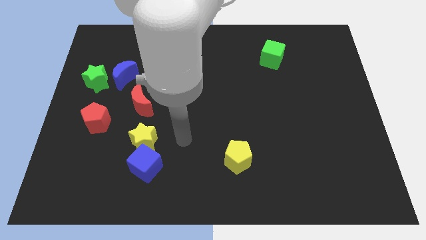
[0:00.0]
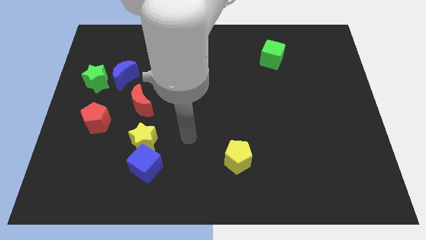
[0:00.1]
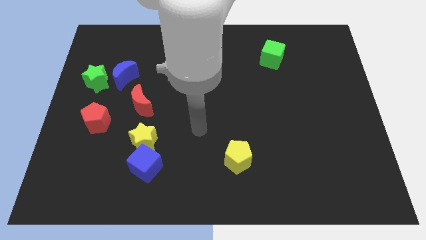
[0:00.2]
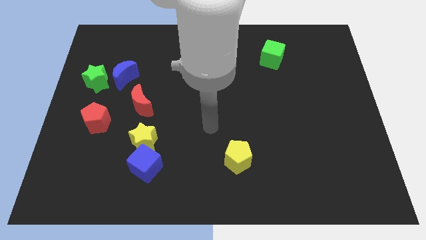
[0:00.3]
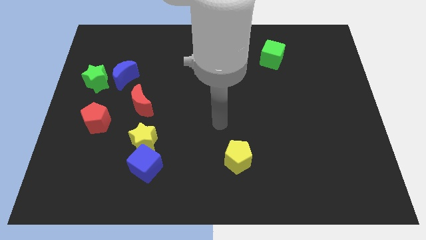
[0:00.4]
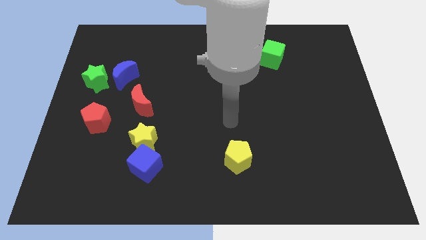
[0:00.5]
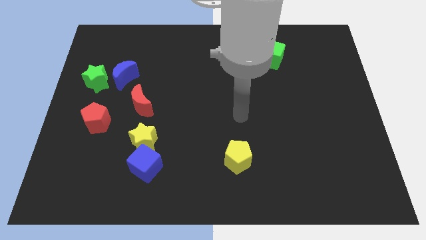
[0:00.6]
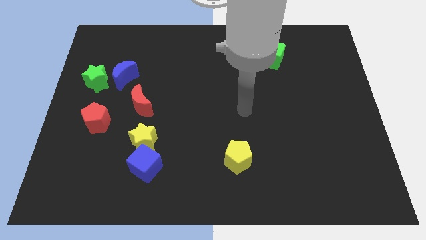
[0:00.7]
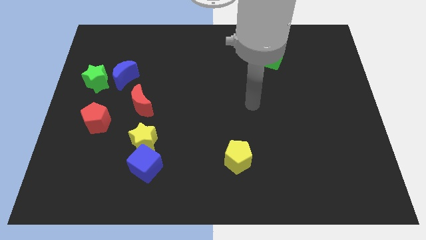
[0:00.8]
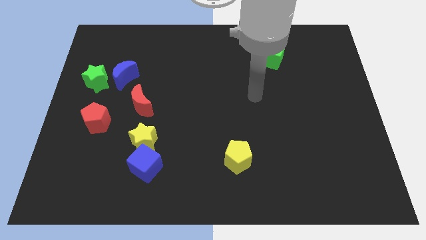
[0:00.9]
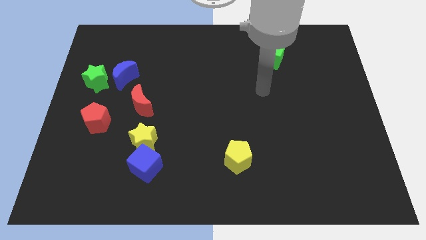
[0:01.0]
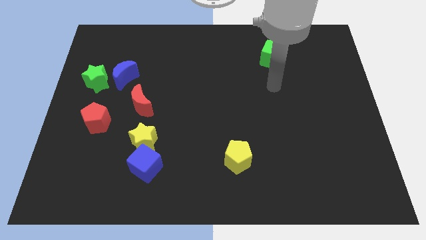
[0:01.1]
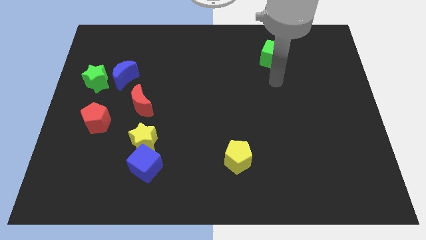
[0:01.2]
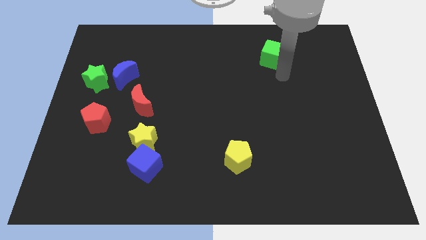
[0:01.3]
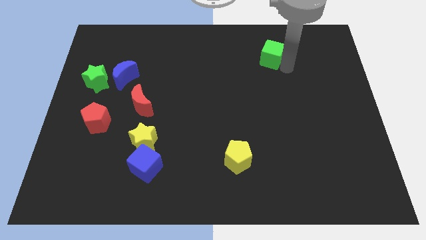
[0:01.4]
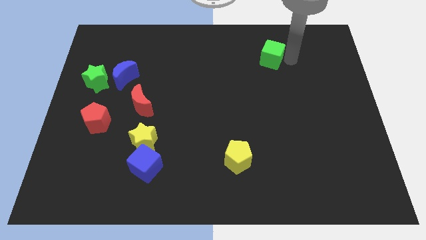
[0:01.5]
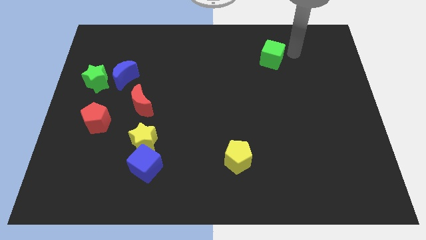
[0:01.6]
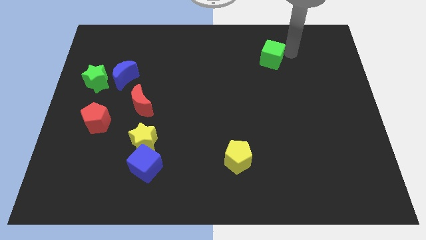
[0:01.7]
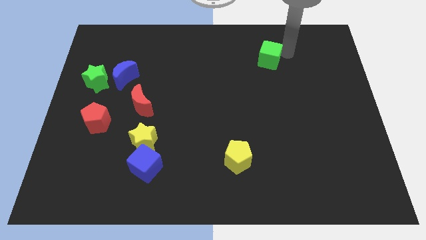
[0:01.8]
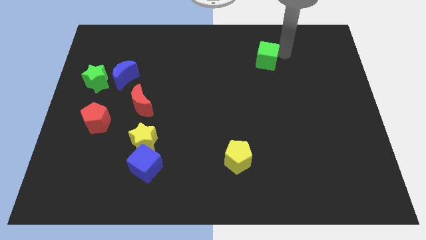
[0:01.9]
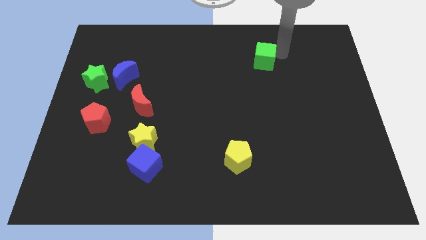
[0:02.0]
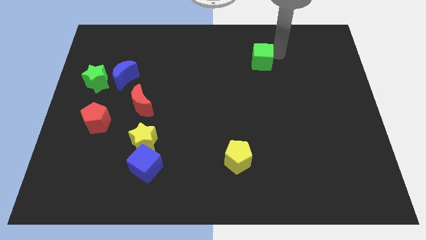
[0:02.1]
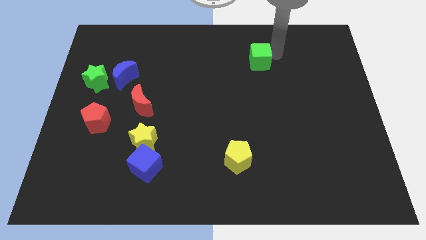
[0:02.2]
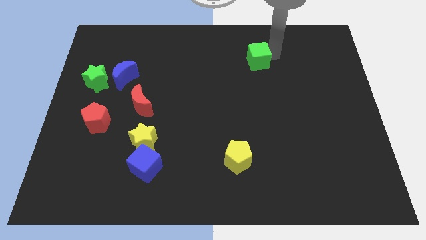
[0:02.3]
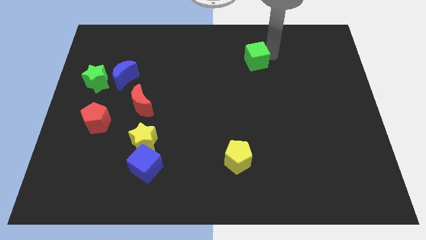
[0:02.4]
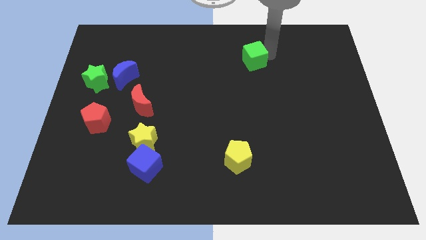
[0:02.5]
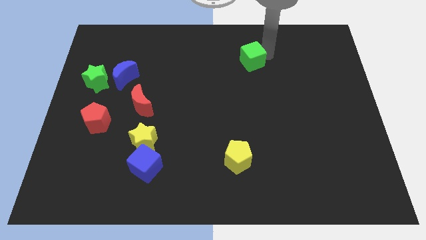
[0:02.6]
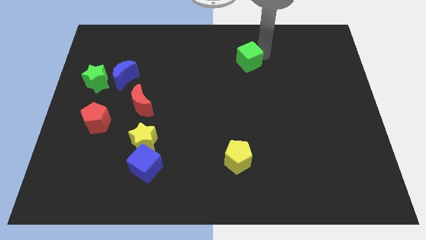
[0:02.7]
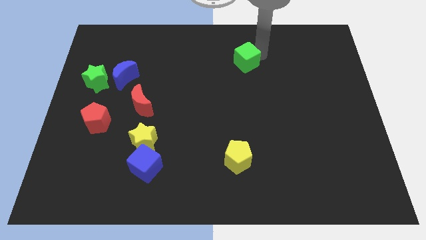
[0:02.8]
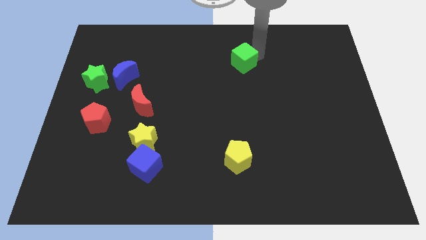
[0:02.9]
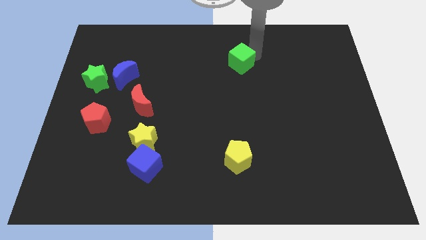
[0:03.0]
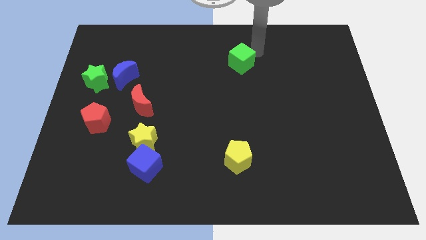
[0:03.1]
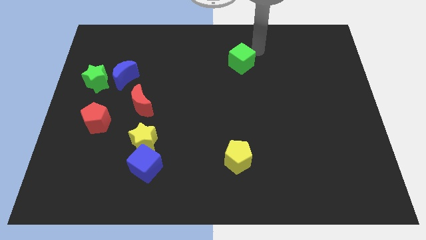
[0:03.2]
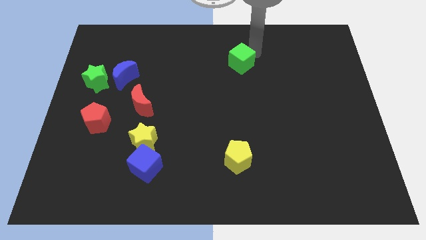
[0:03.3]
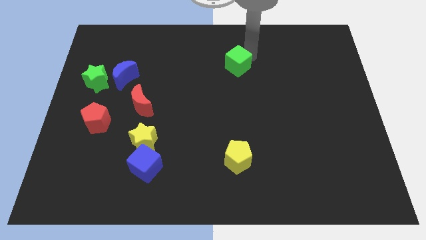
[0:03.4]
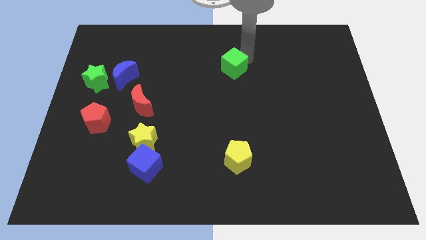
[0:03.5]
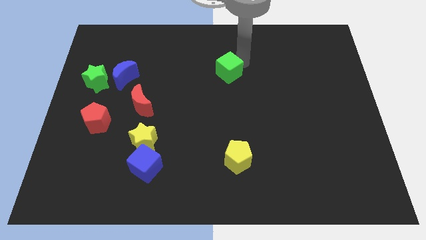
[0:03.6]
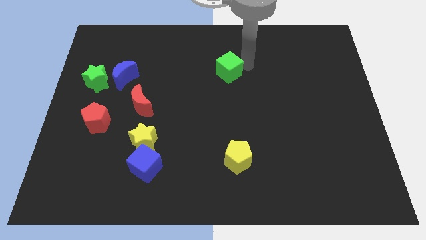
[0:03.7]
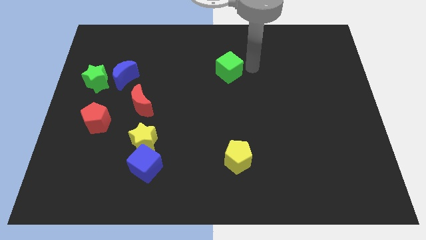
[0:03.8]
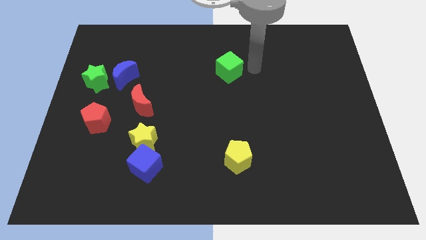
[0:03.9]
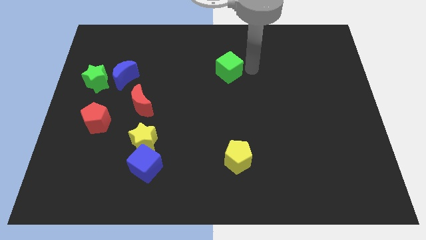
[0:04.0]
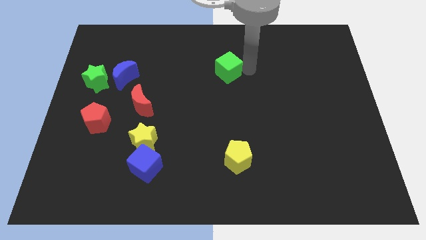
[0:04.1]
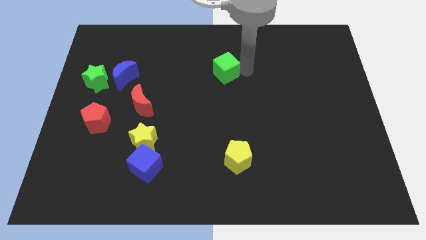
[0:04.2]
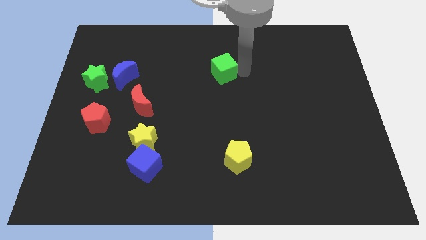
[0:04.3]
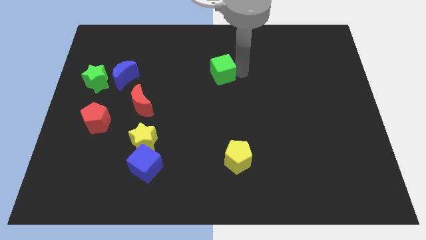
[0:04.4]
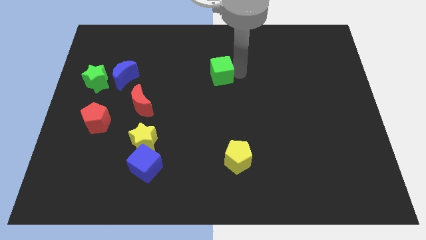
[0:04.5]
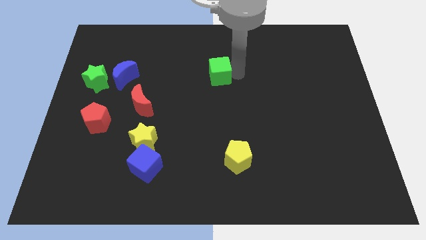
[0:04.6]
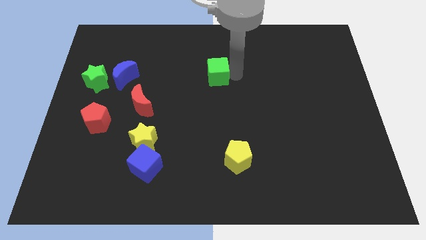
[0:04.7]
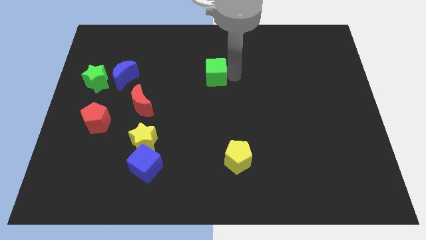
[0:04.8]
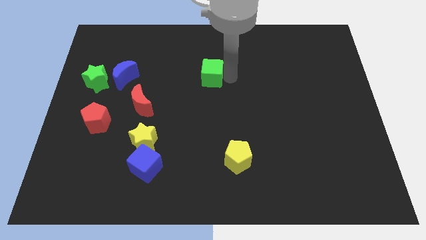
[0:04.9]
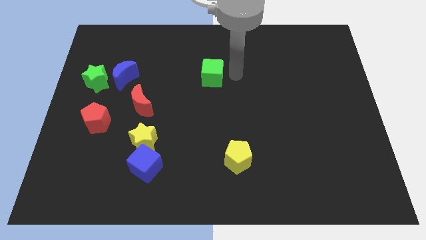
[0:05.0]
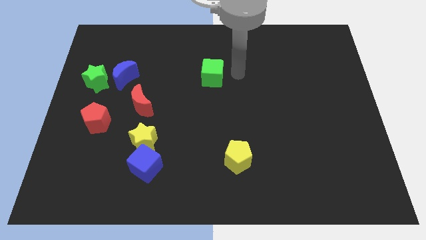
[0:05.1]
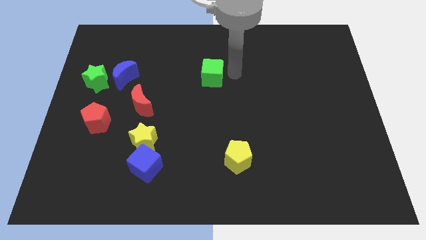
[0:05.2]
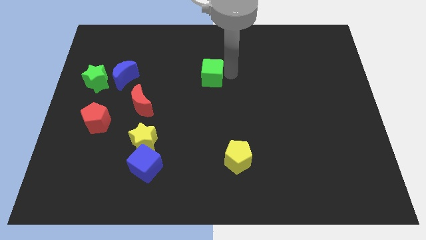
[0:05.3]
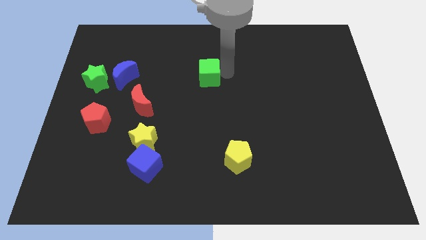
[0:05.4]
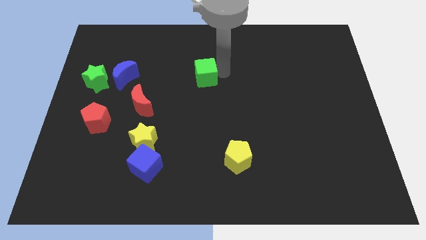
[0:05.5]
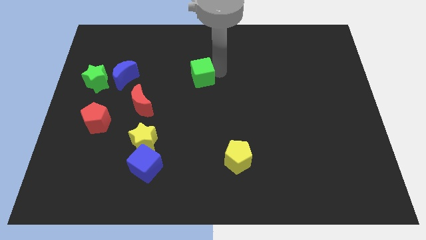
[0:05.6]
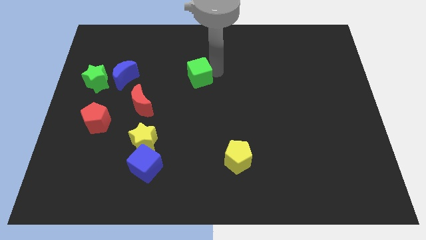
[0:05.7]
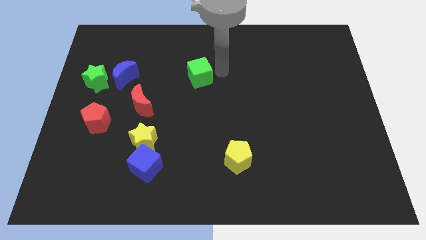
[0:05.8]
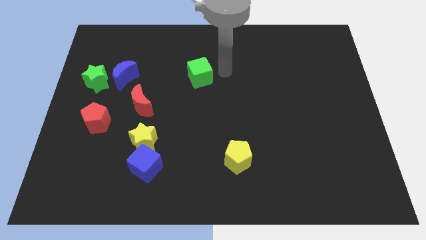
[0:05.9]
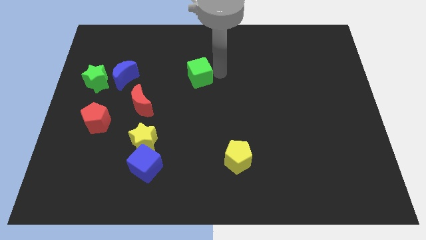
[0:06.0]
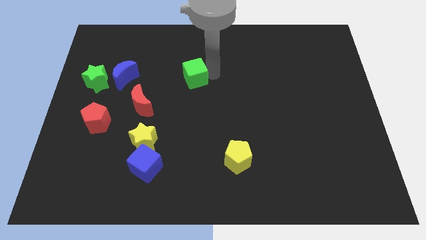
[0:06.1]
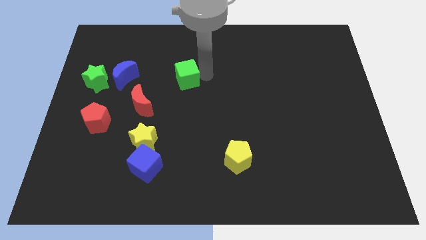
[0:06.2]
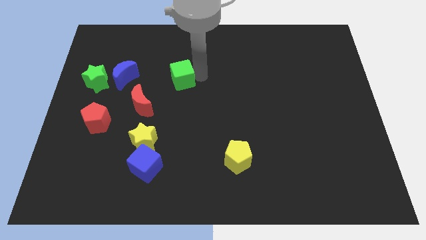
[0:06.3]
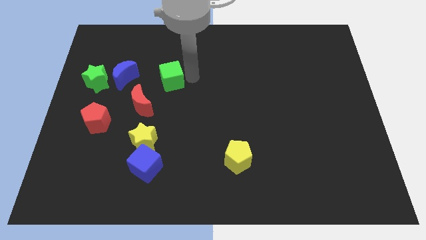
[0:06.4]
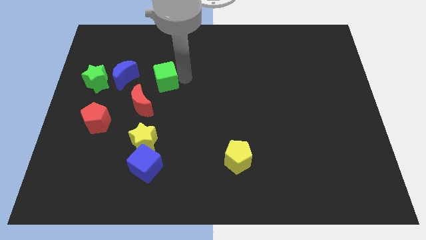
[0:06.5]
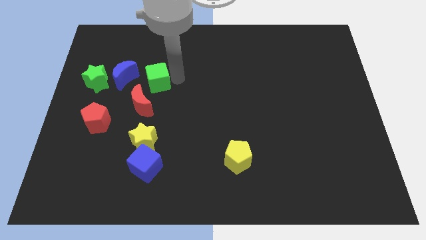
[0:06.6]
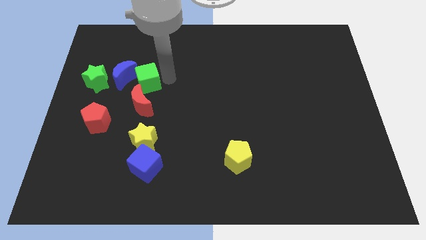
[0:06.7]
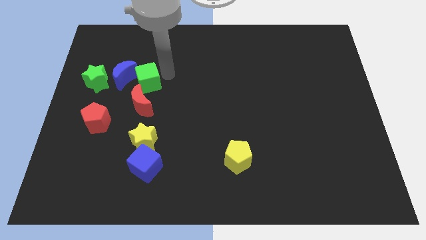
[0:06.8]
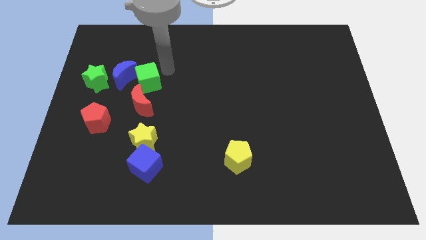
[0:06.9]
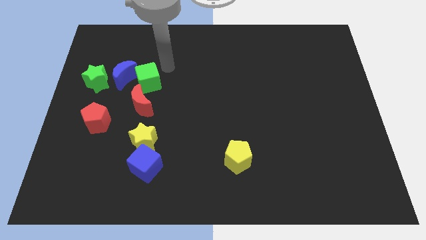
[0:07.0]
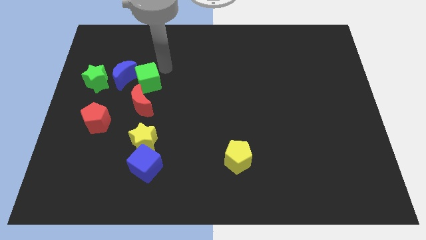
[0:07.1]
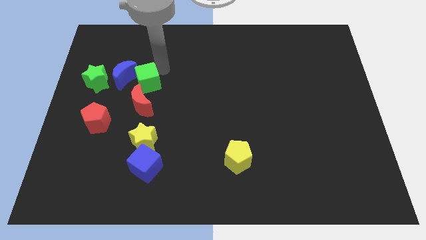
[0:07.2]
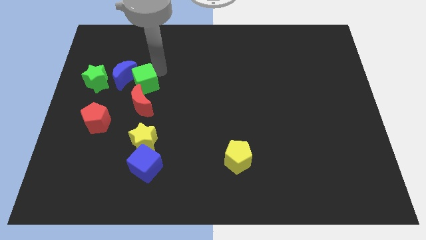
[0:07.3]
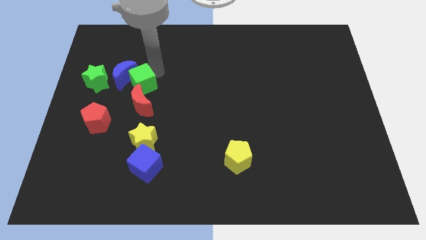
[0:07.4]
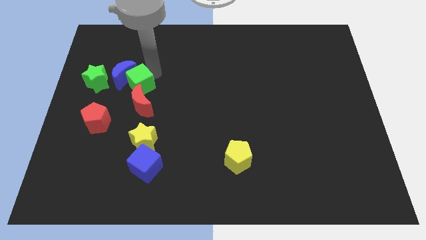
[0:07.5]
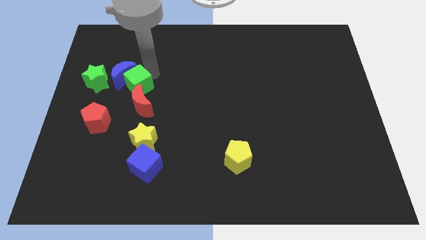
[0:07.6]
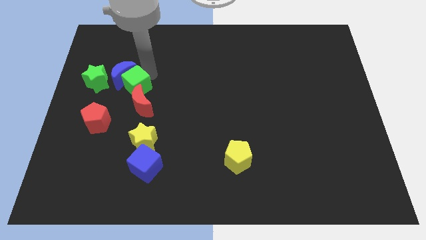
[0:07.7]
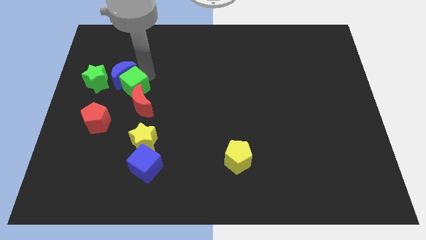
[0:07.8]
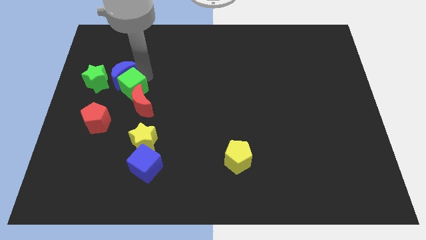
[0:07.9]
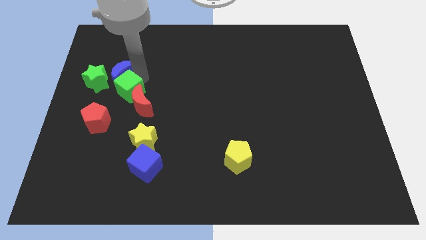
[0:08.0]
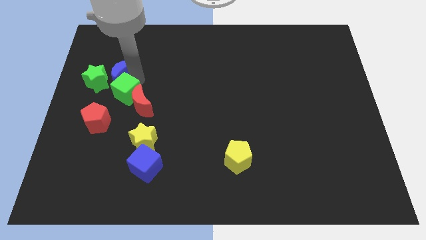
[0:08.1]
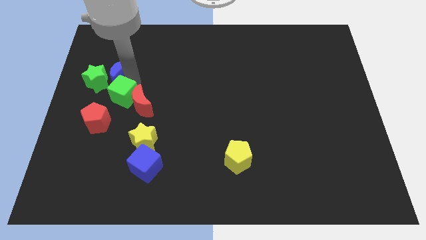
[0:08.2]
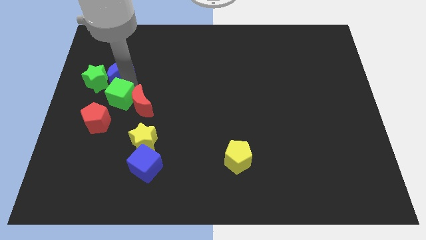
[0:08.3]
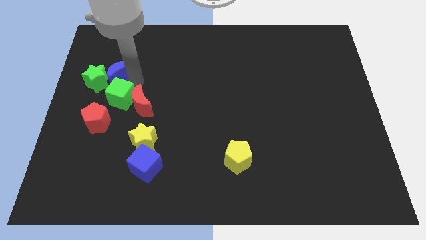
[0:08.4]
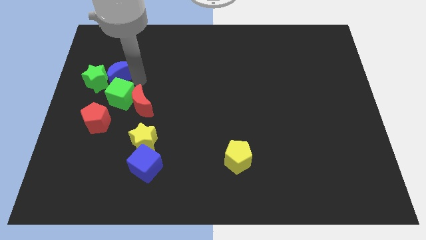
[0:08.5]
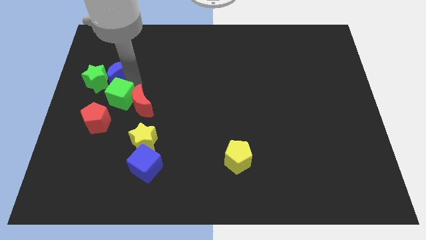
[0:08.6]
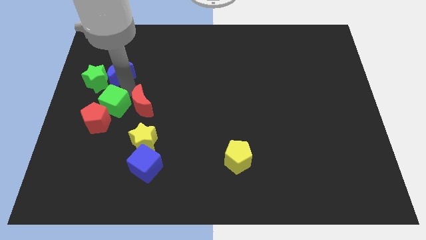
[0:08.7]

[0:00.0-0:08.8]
move the green cube close to the red pentagon
